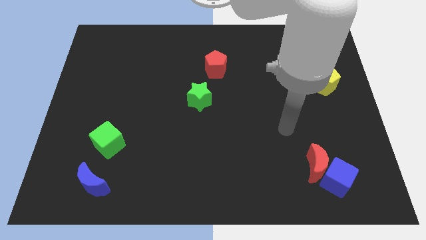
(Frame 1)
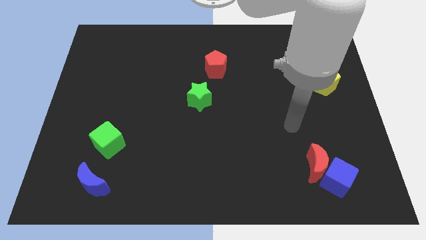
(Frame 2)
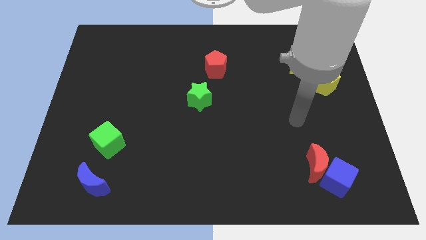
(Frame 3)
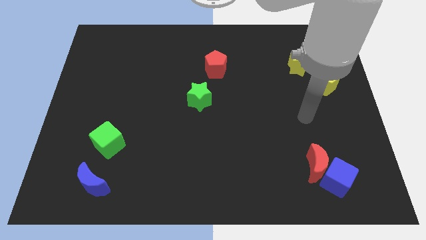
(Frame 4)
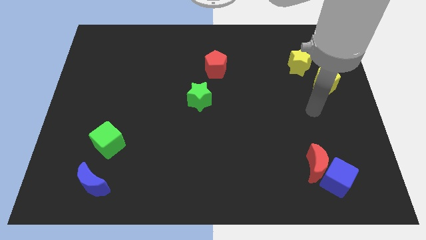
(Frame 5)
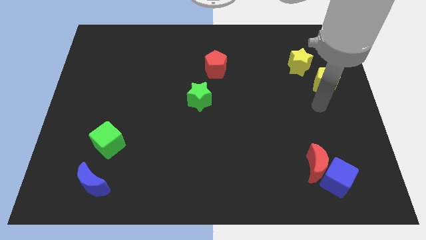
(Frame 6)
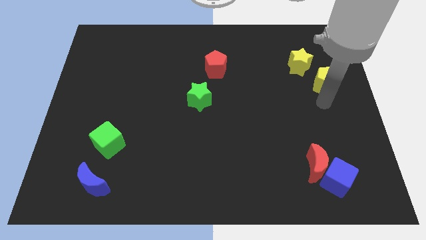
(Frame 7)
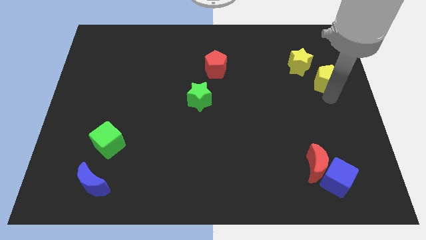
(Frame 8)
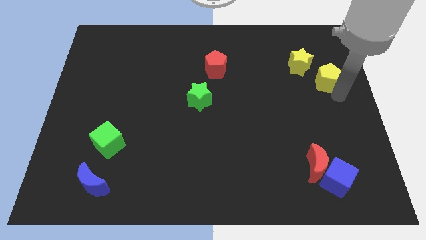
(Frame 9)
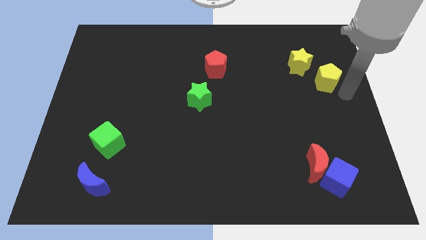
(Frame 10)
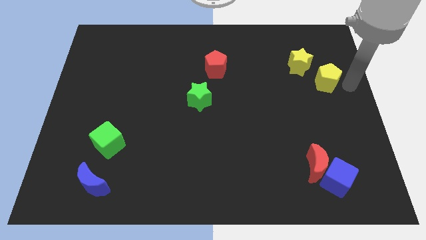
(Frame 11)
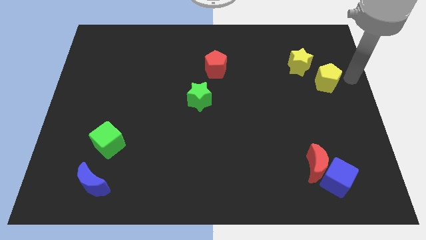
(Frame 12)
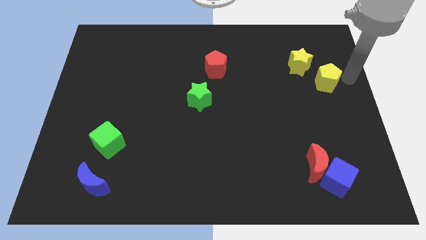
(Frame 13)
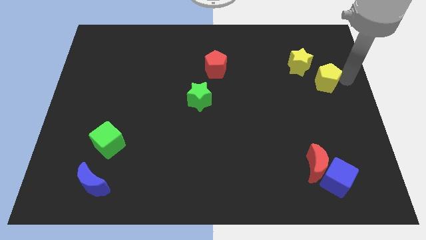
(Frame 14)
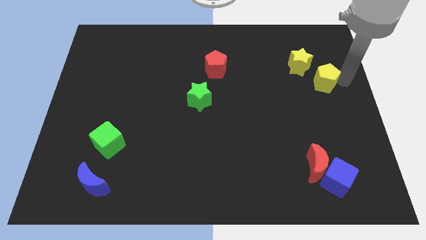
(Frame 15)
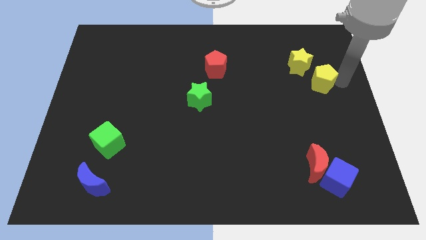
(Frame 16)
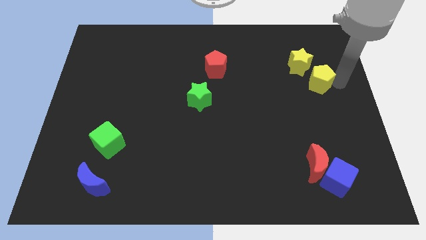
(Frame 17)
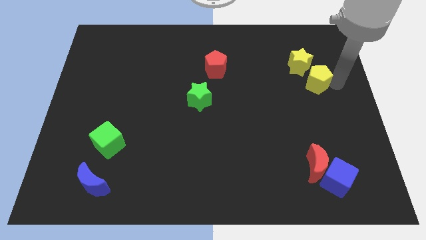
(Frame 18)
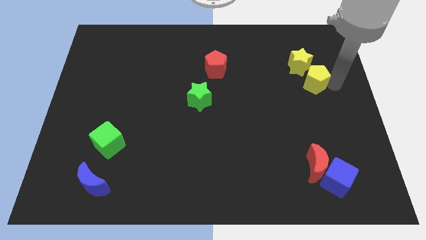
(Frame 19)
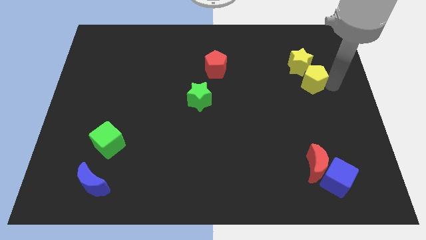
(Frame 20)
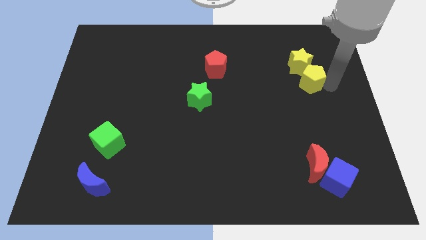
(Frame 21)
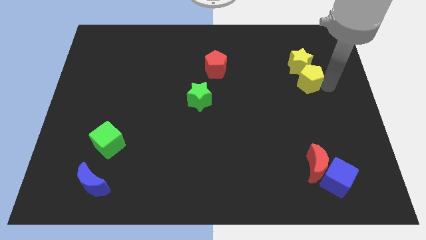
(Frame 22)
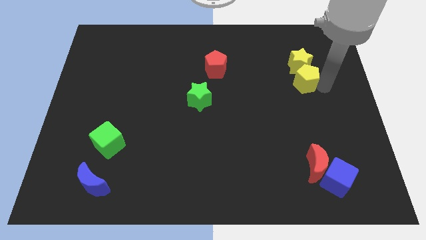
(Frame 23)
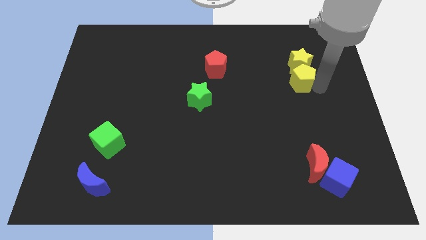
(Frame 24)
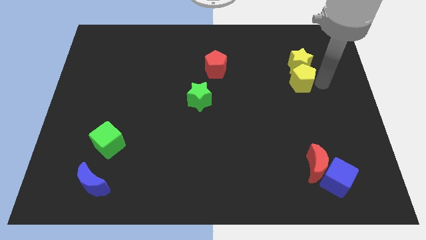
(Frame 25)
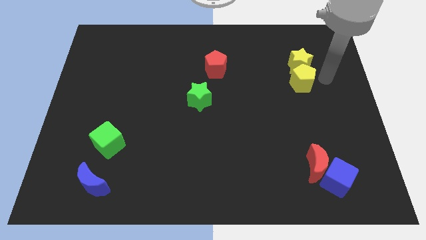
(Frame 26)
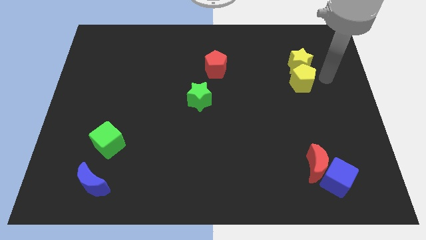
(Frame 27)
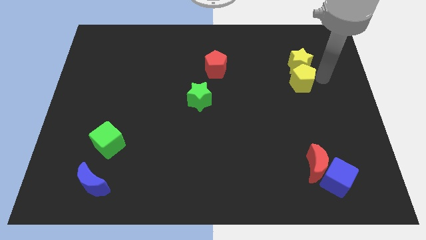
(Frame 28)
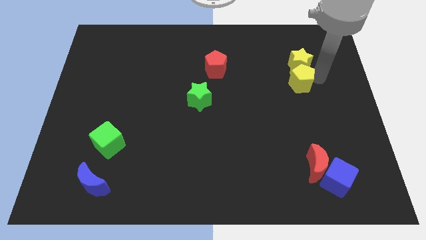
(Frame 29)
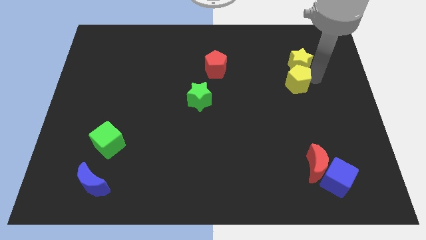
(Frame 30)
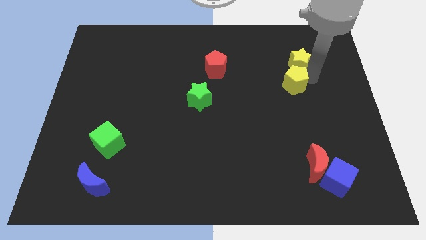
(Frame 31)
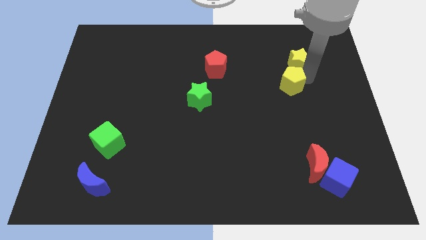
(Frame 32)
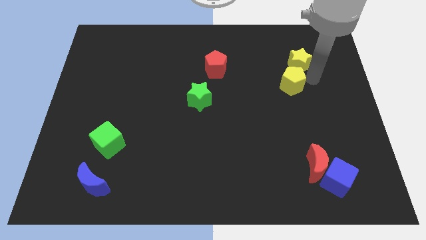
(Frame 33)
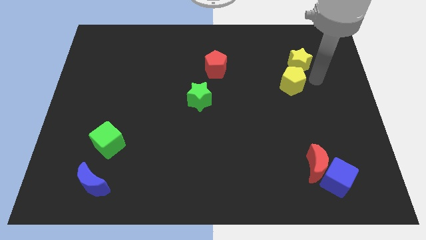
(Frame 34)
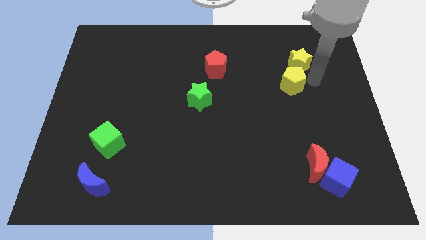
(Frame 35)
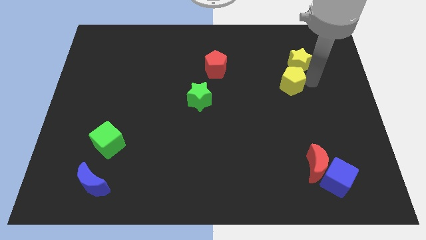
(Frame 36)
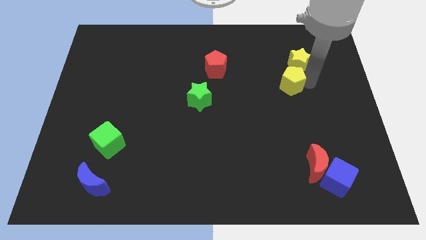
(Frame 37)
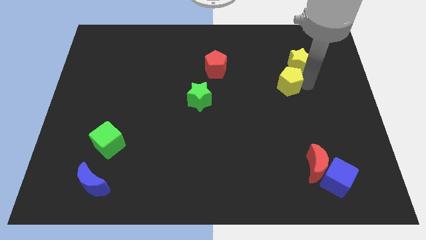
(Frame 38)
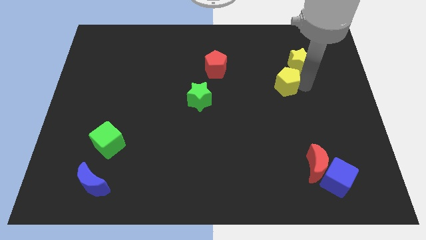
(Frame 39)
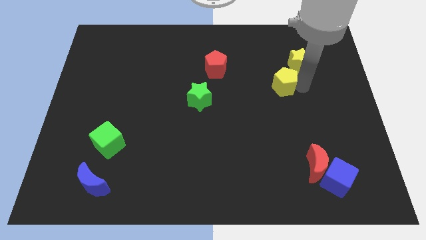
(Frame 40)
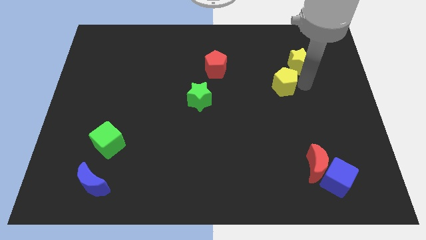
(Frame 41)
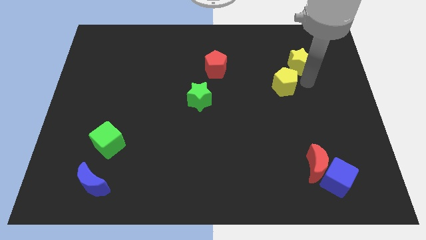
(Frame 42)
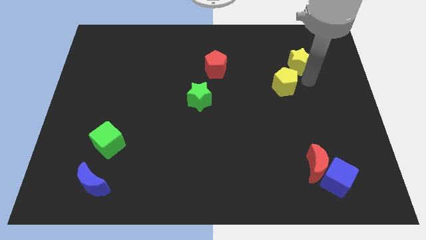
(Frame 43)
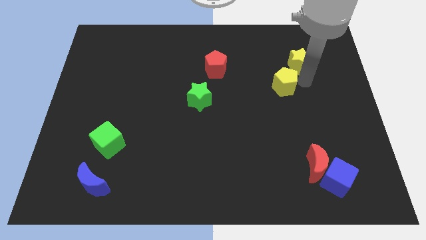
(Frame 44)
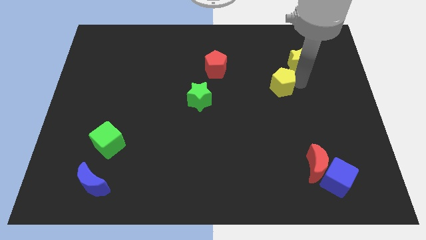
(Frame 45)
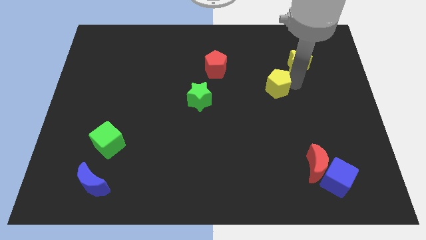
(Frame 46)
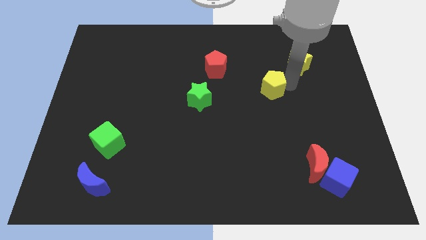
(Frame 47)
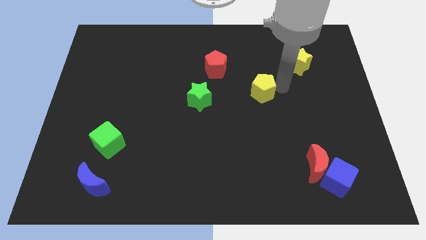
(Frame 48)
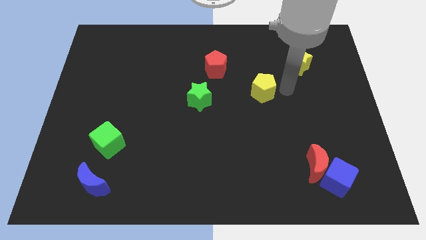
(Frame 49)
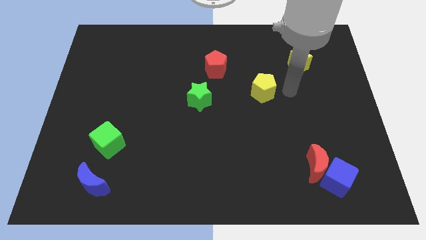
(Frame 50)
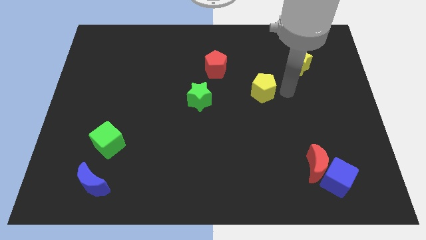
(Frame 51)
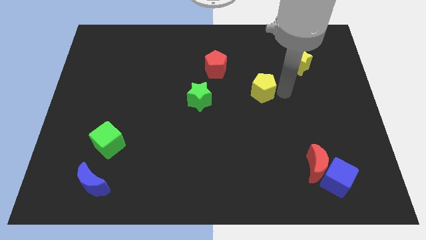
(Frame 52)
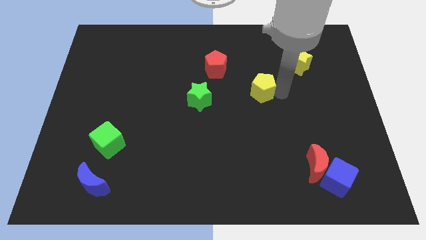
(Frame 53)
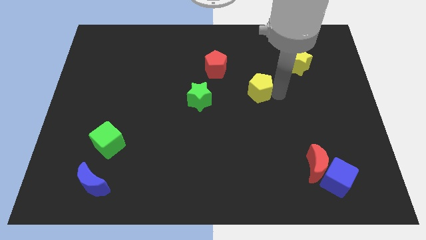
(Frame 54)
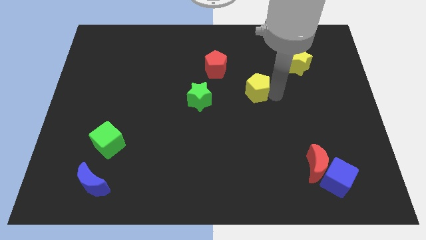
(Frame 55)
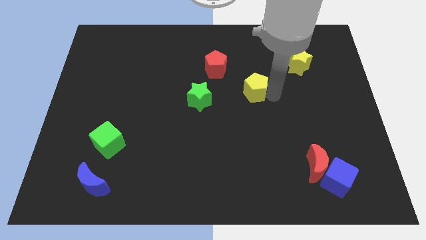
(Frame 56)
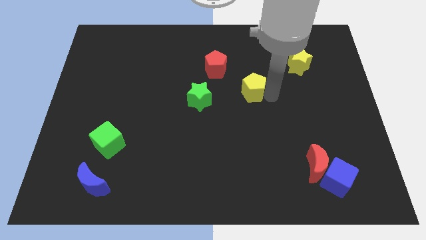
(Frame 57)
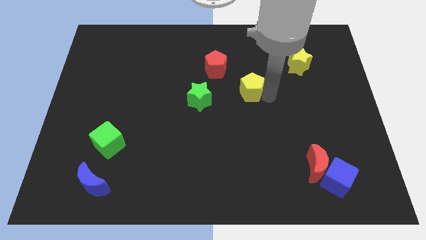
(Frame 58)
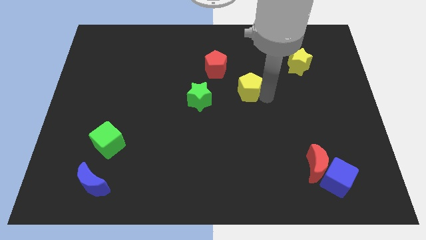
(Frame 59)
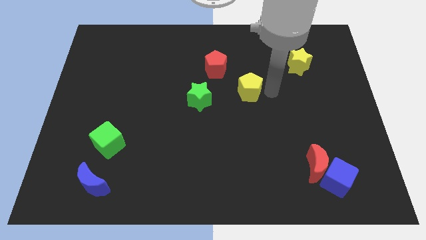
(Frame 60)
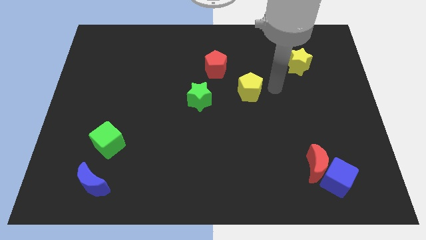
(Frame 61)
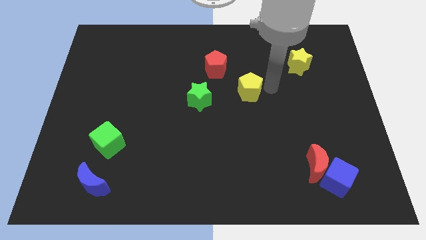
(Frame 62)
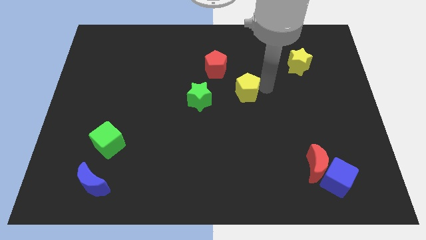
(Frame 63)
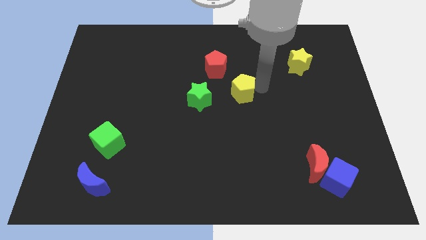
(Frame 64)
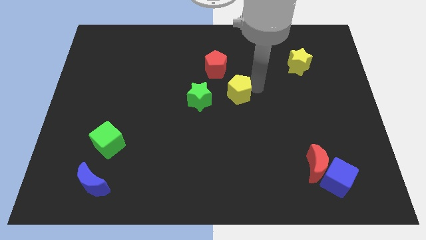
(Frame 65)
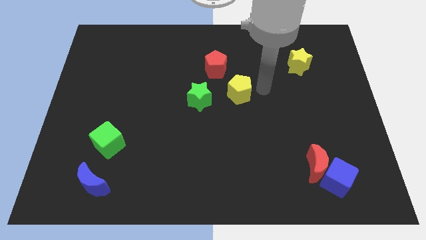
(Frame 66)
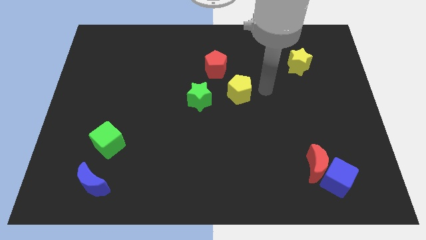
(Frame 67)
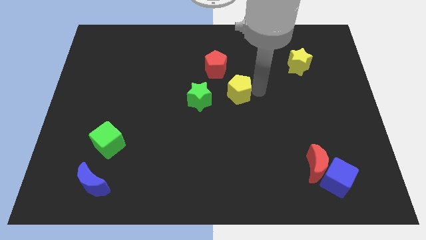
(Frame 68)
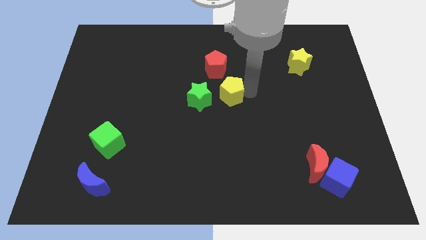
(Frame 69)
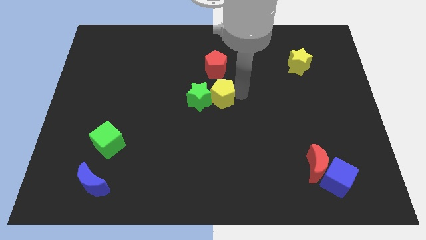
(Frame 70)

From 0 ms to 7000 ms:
move the yellow pentagon towards the green star

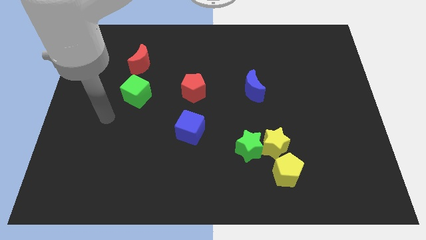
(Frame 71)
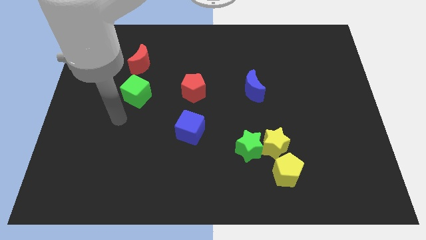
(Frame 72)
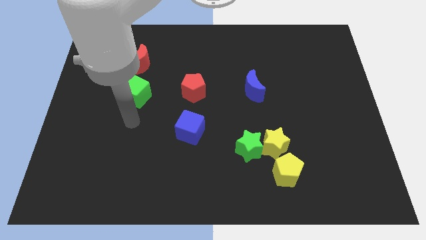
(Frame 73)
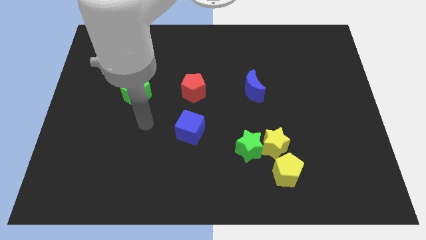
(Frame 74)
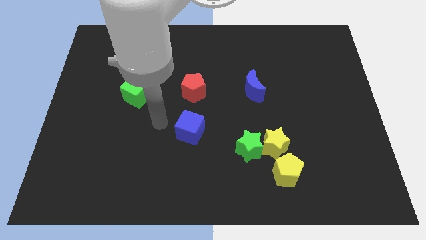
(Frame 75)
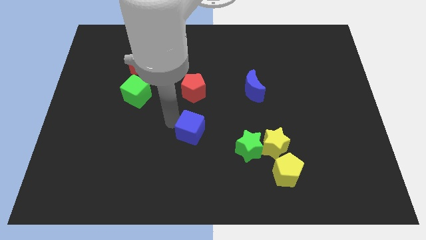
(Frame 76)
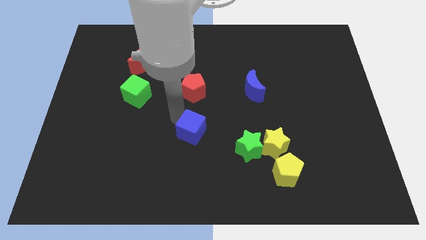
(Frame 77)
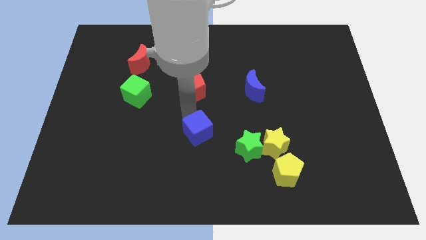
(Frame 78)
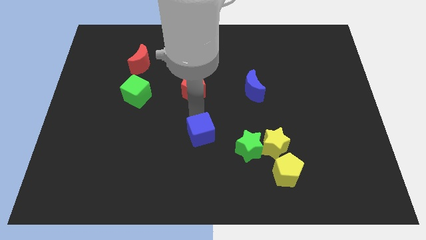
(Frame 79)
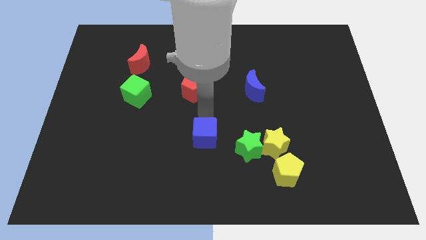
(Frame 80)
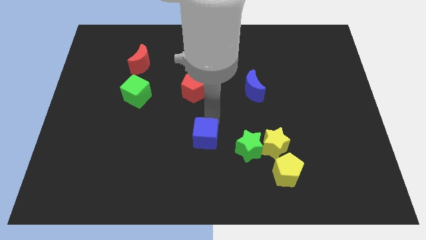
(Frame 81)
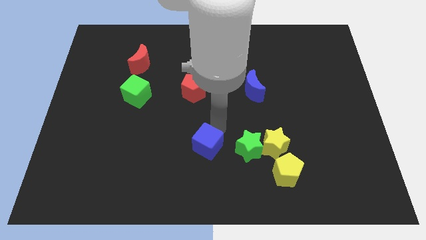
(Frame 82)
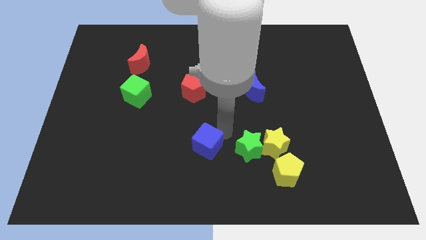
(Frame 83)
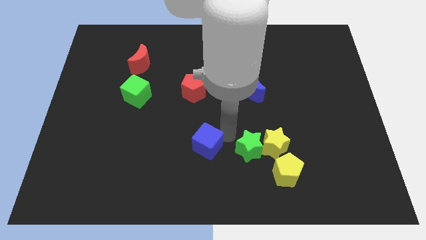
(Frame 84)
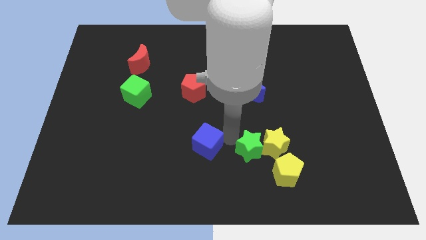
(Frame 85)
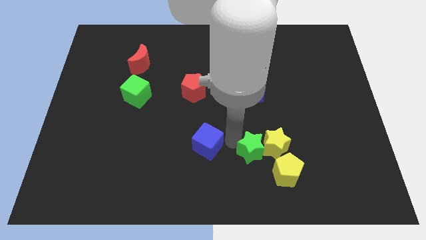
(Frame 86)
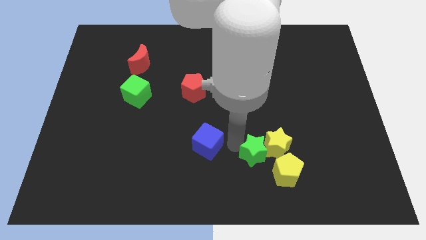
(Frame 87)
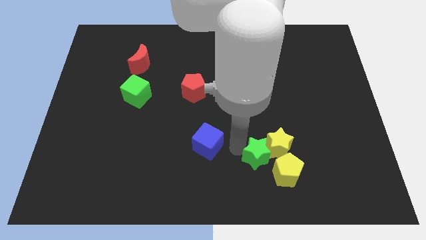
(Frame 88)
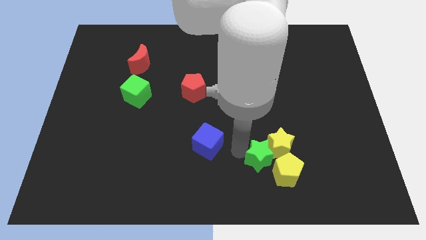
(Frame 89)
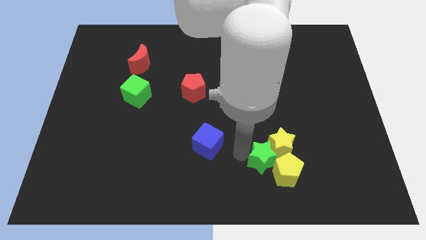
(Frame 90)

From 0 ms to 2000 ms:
put the green star close to the yellow pentagon
